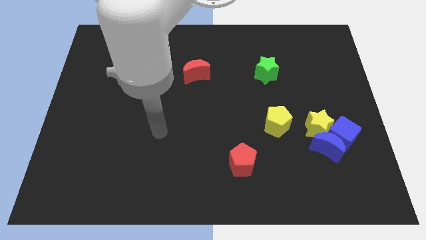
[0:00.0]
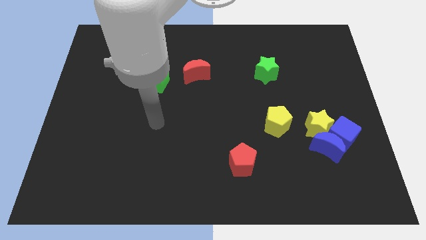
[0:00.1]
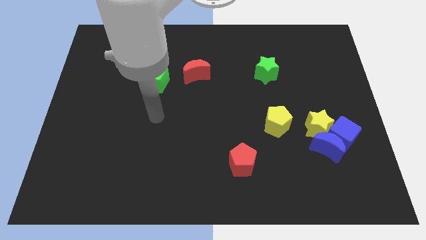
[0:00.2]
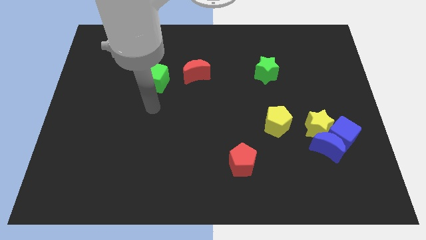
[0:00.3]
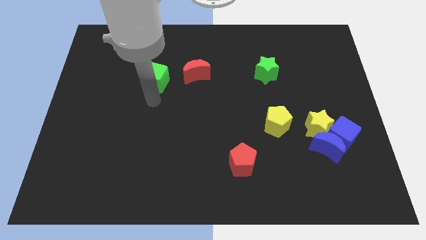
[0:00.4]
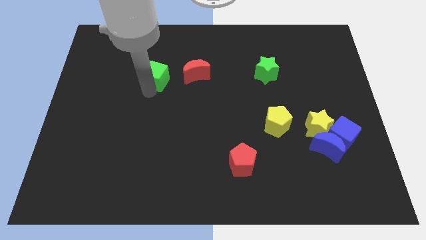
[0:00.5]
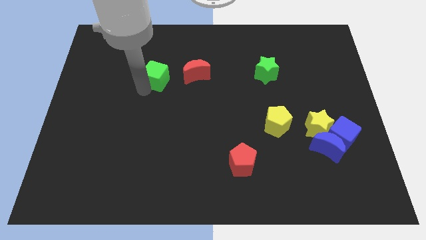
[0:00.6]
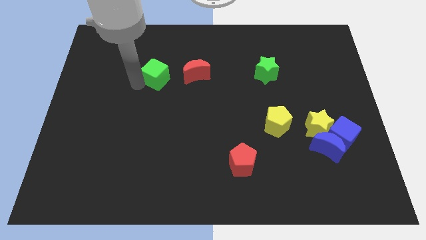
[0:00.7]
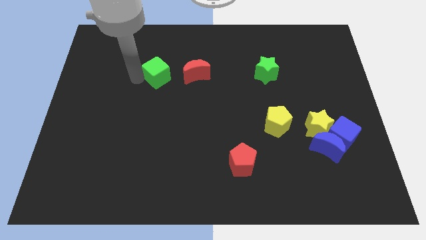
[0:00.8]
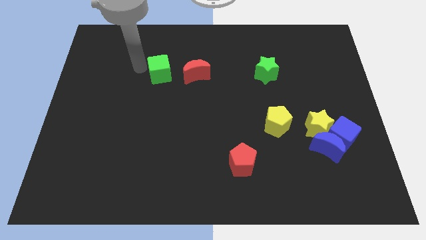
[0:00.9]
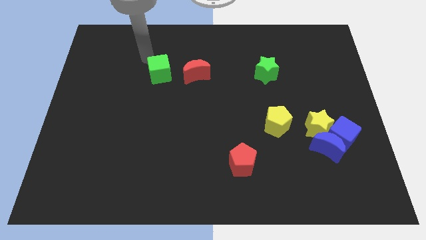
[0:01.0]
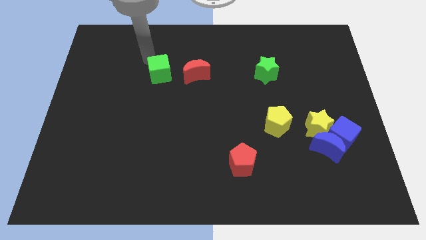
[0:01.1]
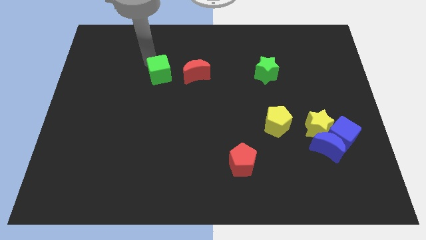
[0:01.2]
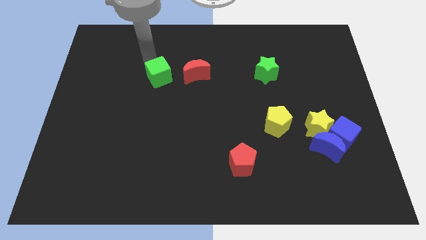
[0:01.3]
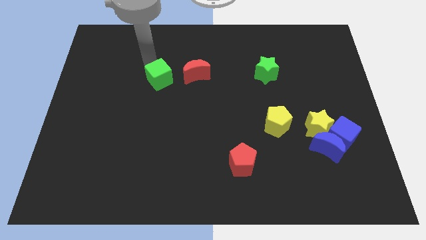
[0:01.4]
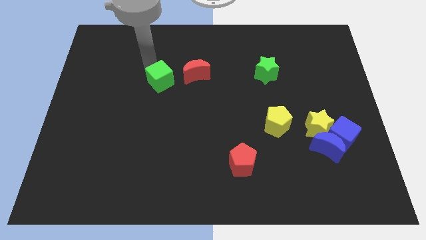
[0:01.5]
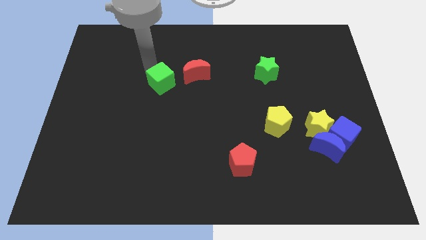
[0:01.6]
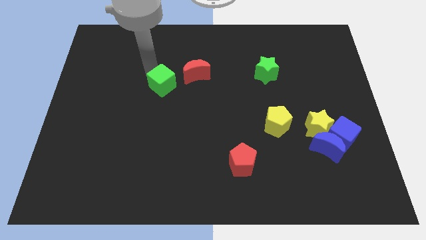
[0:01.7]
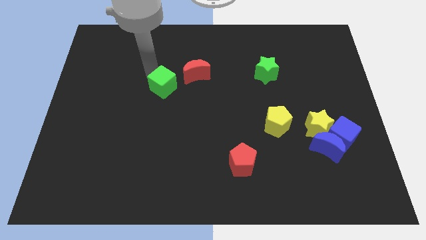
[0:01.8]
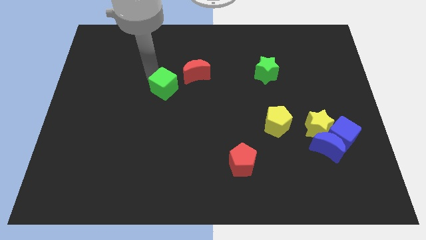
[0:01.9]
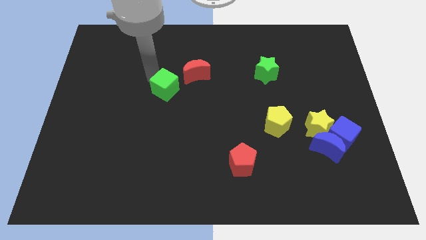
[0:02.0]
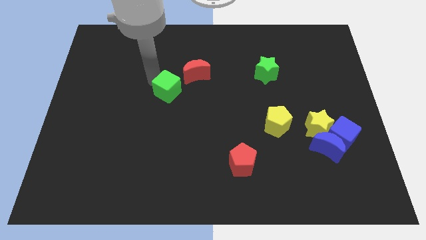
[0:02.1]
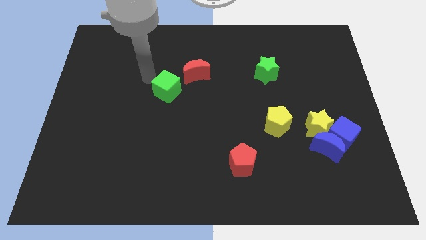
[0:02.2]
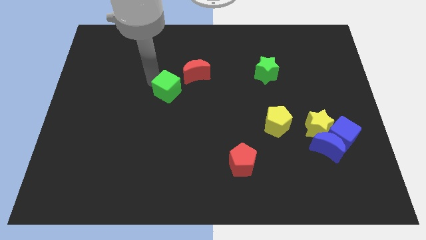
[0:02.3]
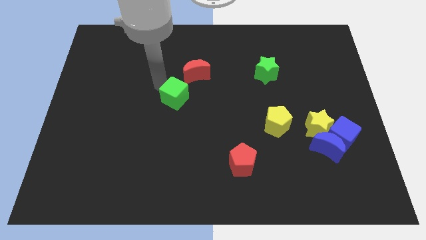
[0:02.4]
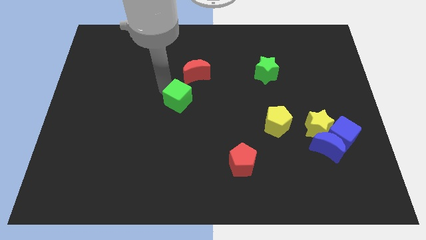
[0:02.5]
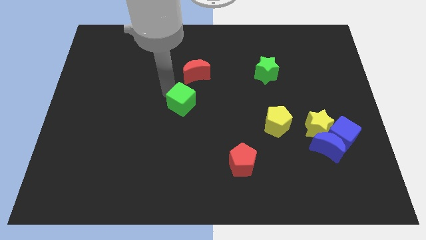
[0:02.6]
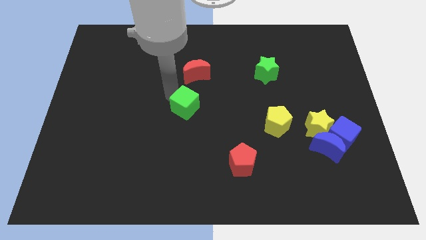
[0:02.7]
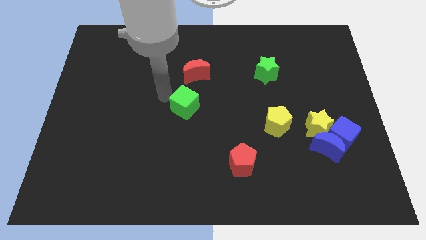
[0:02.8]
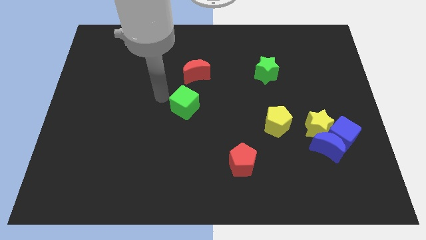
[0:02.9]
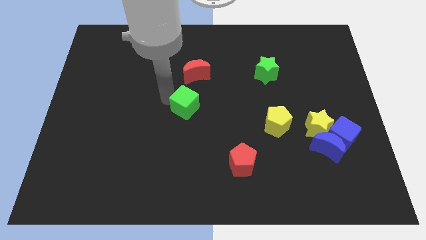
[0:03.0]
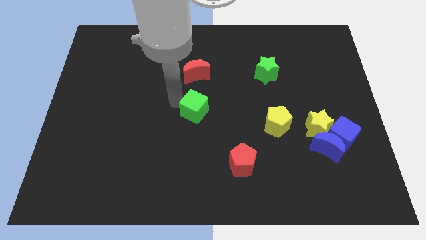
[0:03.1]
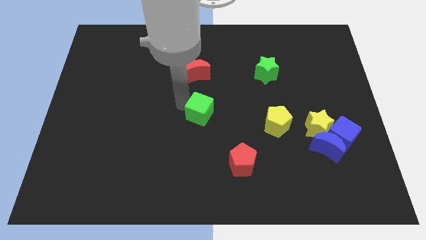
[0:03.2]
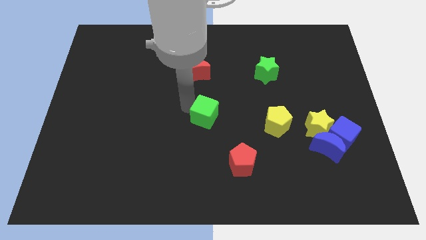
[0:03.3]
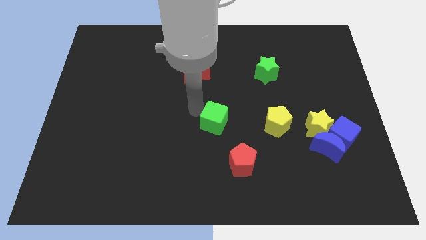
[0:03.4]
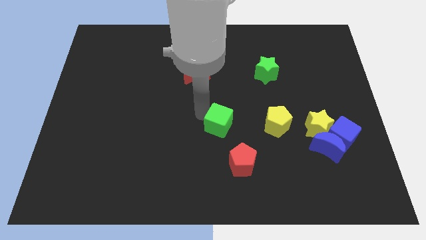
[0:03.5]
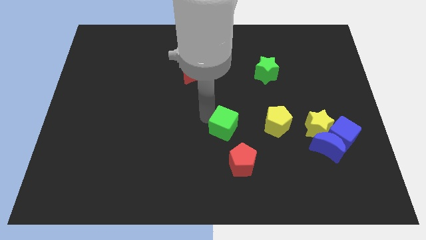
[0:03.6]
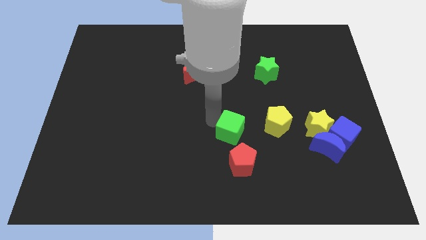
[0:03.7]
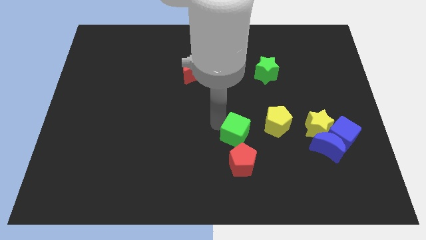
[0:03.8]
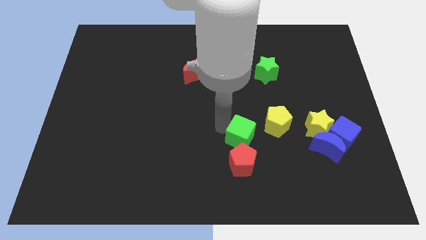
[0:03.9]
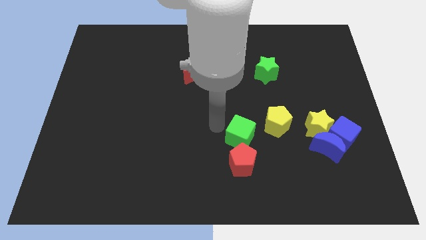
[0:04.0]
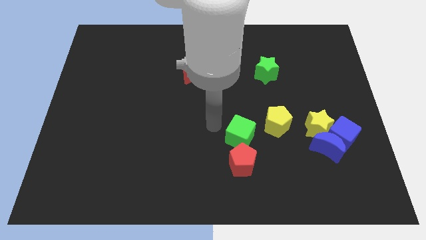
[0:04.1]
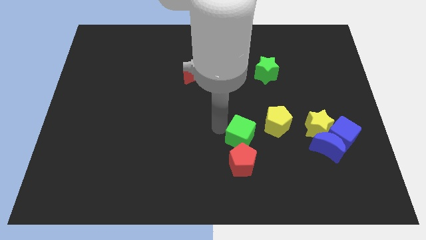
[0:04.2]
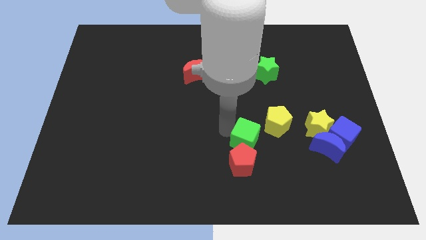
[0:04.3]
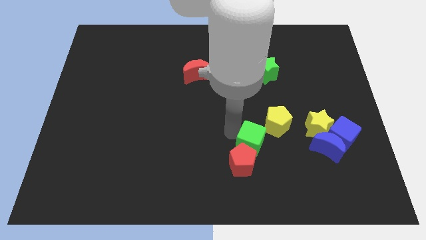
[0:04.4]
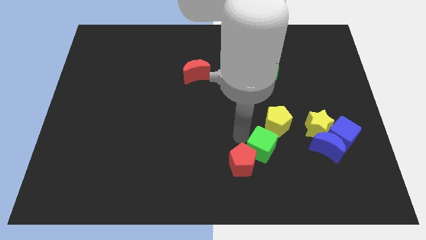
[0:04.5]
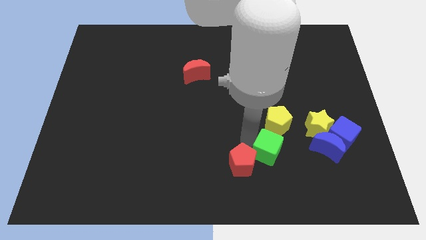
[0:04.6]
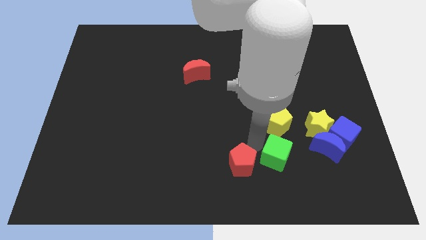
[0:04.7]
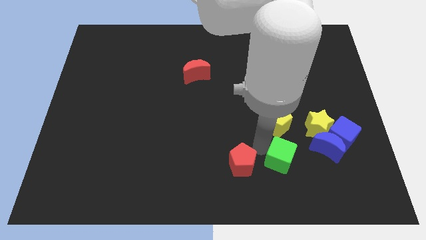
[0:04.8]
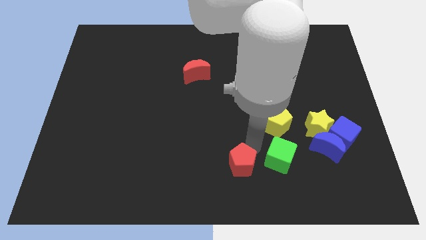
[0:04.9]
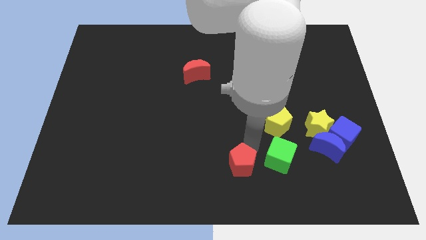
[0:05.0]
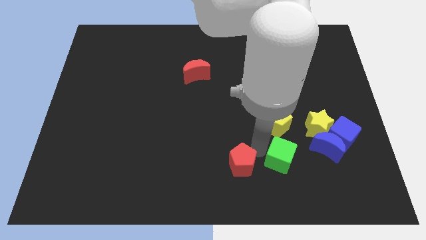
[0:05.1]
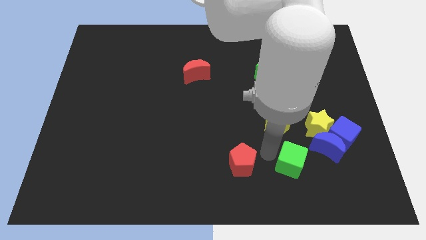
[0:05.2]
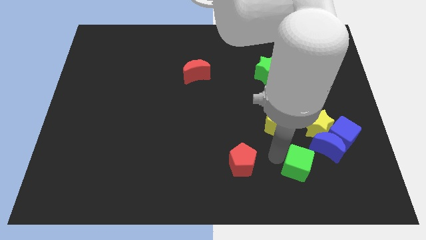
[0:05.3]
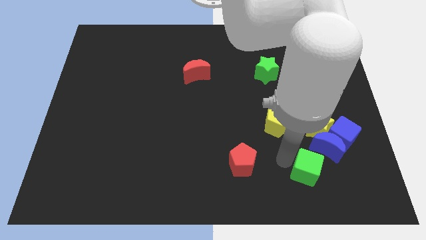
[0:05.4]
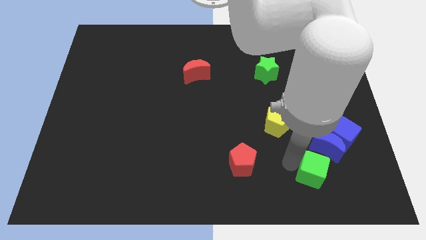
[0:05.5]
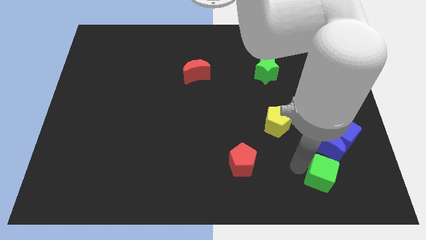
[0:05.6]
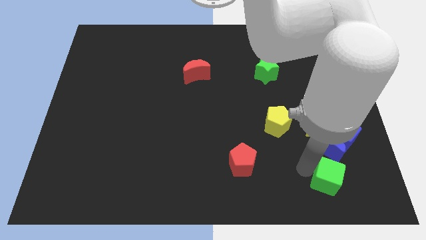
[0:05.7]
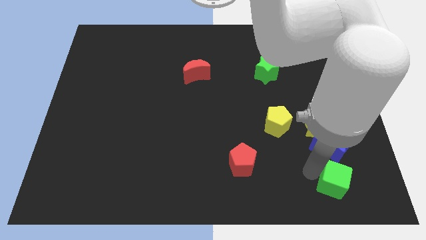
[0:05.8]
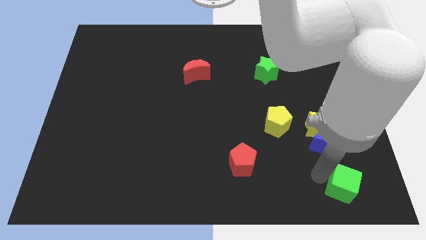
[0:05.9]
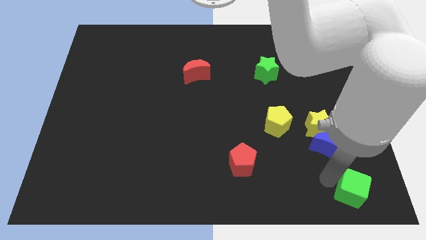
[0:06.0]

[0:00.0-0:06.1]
push the green cube to the bottom right corner
